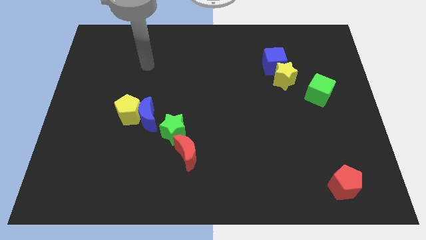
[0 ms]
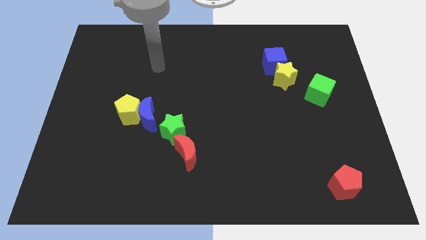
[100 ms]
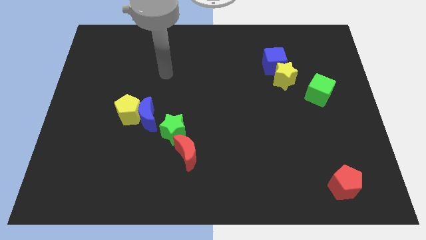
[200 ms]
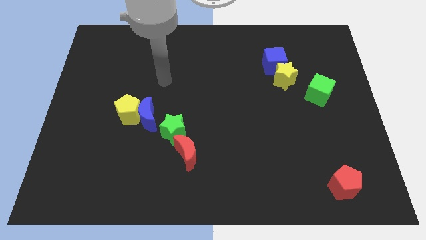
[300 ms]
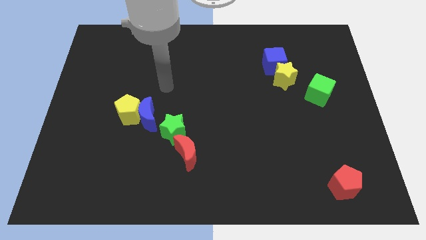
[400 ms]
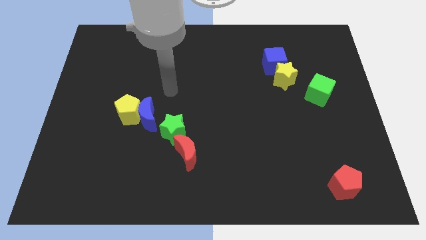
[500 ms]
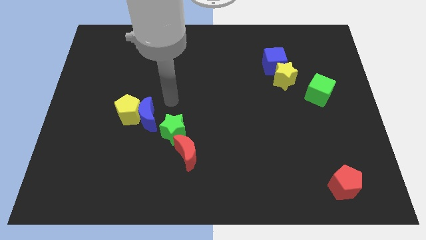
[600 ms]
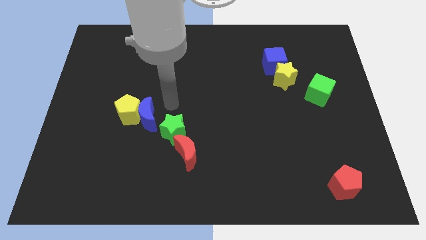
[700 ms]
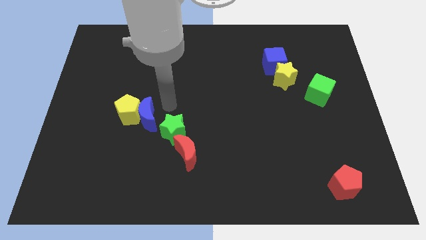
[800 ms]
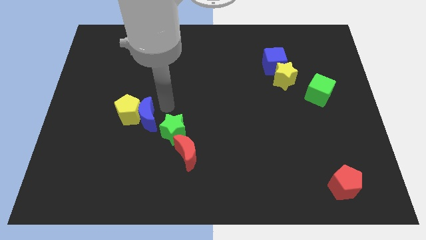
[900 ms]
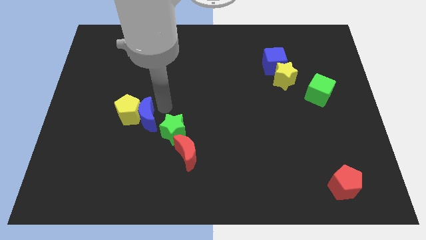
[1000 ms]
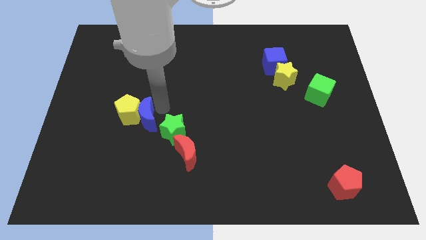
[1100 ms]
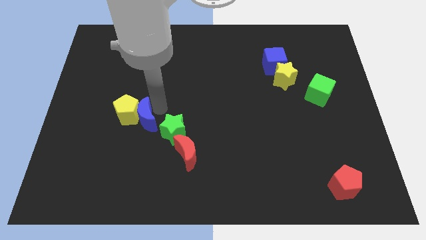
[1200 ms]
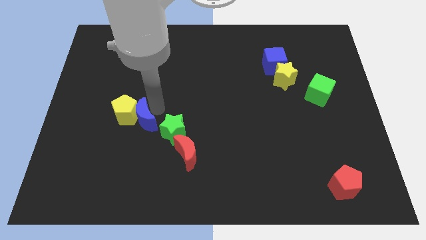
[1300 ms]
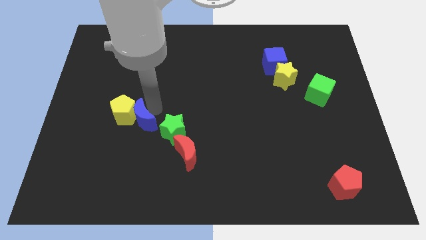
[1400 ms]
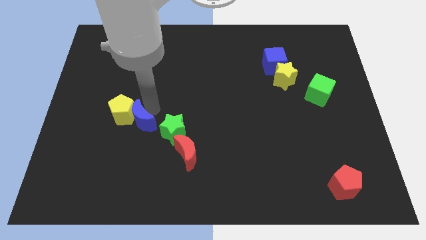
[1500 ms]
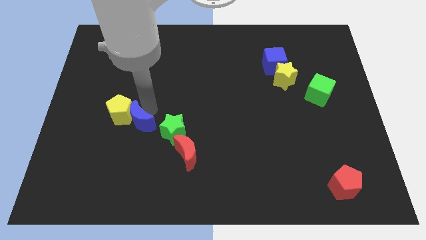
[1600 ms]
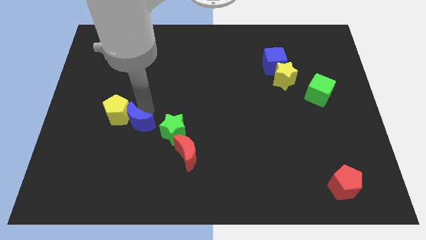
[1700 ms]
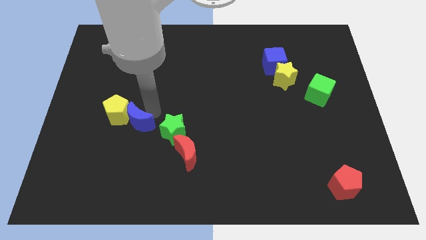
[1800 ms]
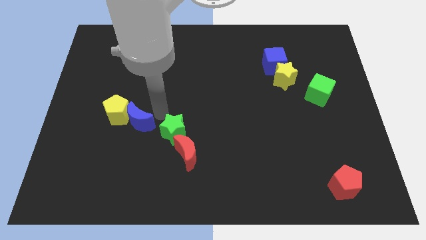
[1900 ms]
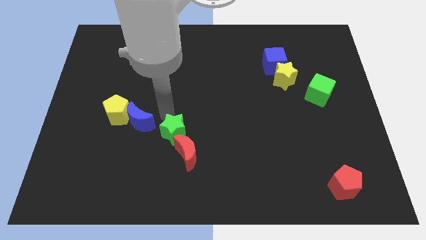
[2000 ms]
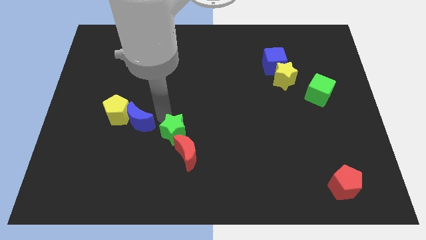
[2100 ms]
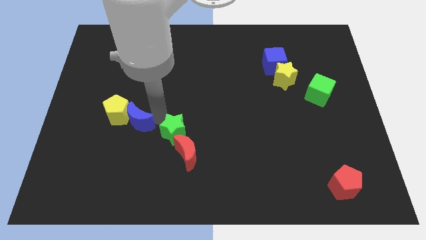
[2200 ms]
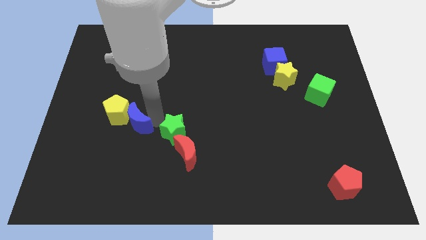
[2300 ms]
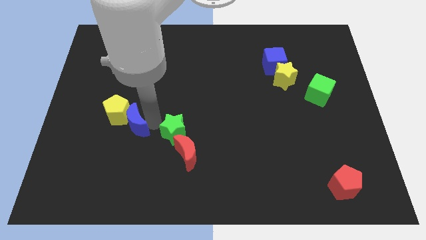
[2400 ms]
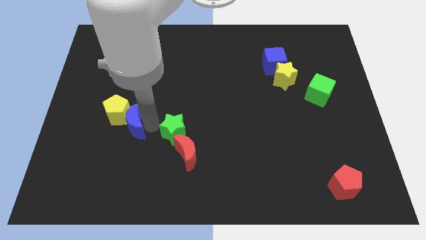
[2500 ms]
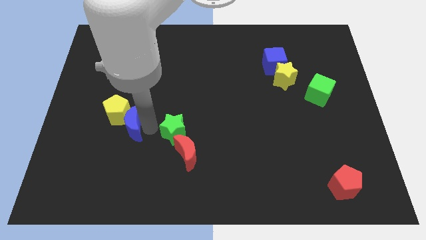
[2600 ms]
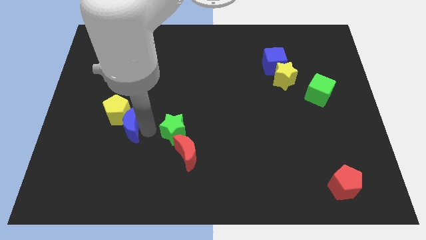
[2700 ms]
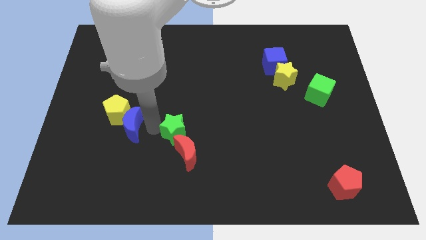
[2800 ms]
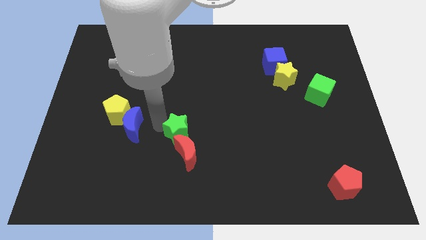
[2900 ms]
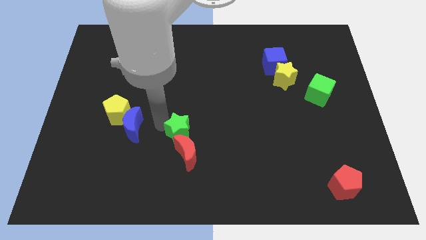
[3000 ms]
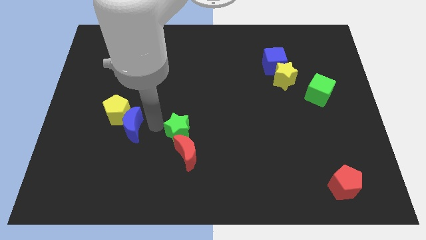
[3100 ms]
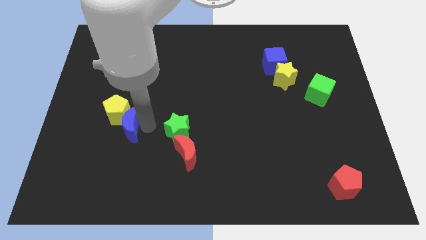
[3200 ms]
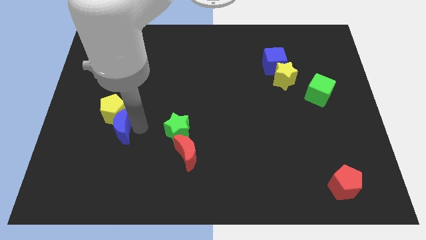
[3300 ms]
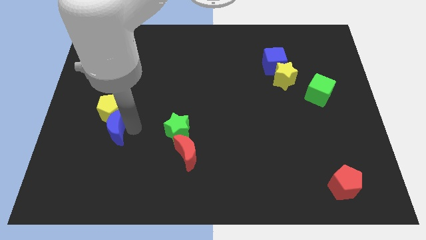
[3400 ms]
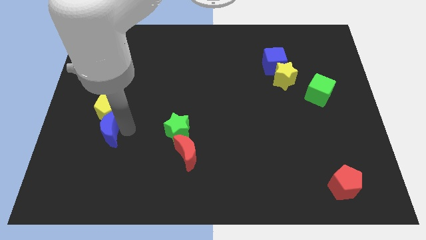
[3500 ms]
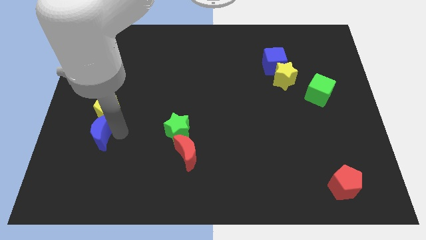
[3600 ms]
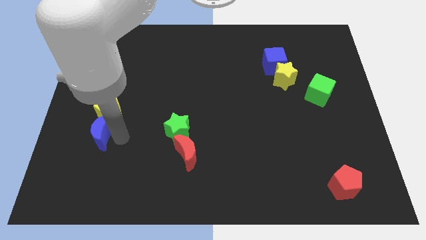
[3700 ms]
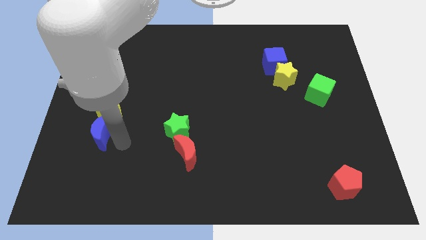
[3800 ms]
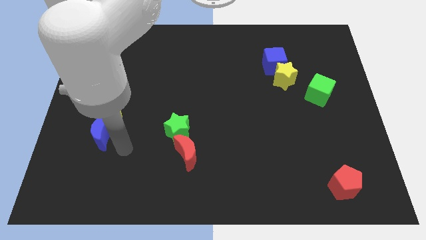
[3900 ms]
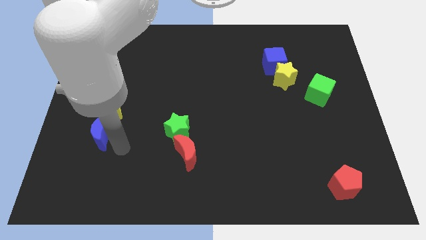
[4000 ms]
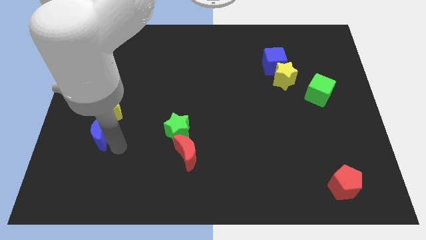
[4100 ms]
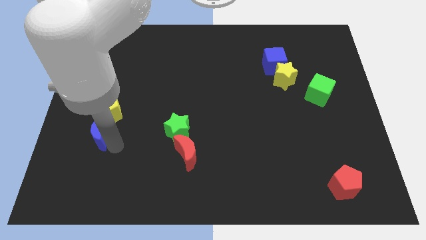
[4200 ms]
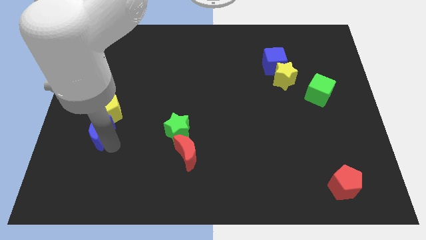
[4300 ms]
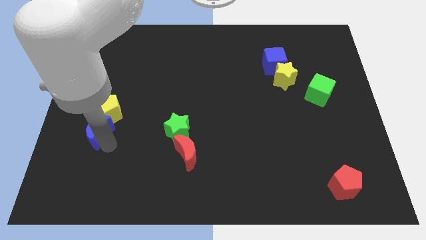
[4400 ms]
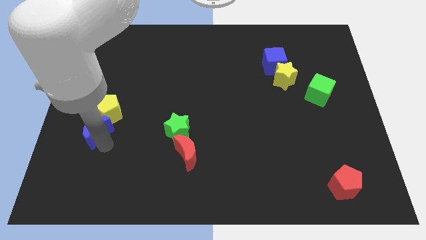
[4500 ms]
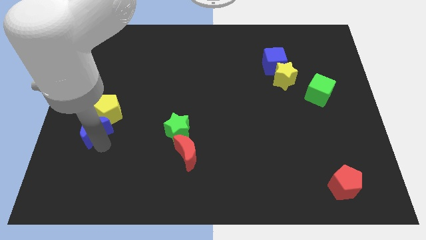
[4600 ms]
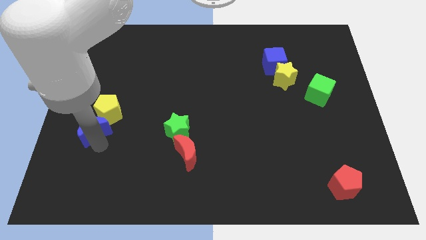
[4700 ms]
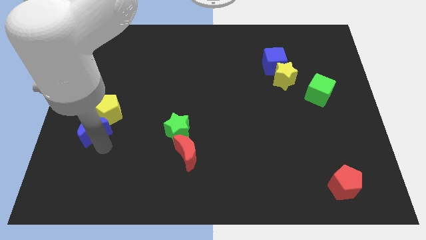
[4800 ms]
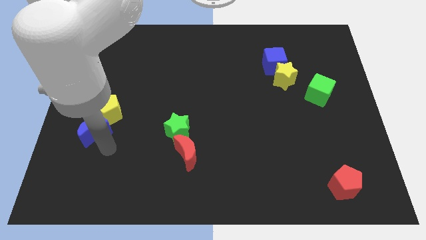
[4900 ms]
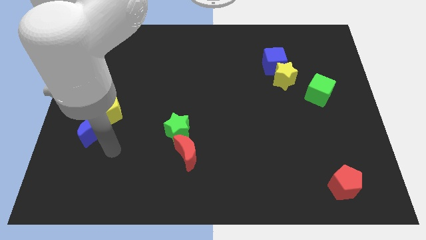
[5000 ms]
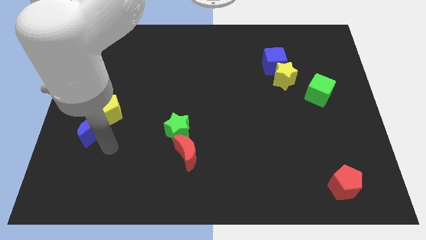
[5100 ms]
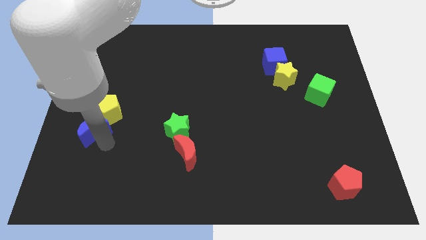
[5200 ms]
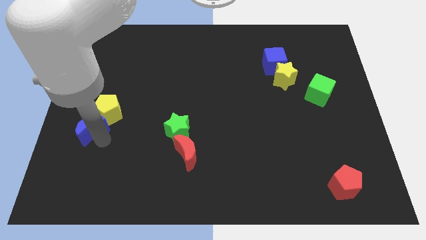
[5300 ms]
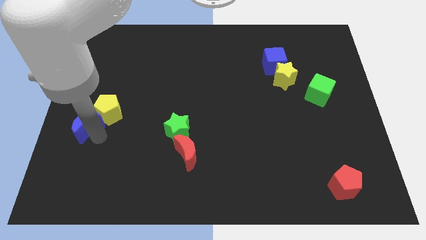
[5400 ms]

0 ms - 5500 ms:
move the blue moon to the left side

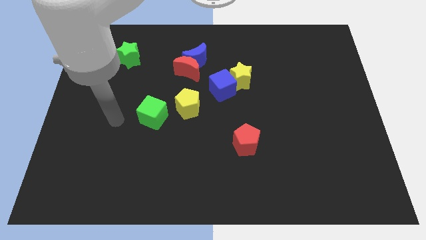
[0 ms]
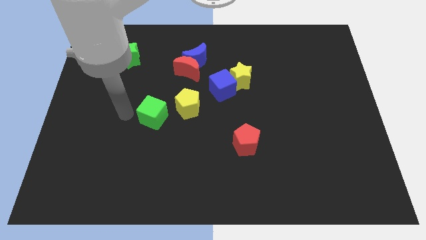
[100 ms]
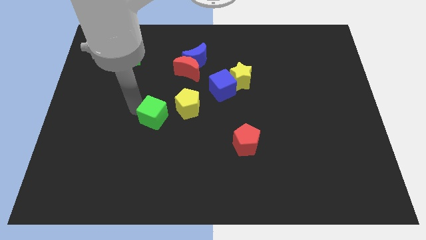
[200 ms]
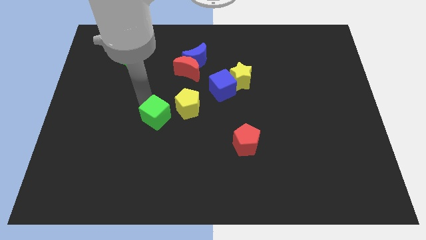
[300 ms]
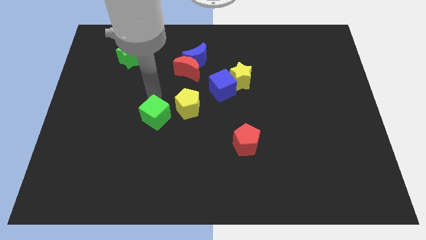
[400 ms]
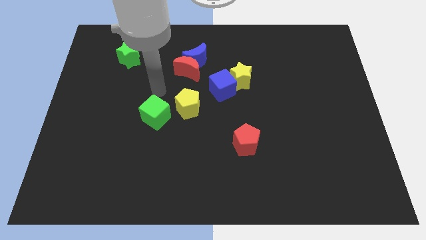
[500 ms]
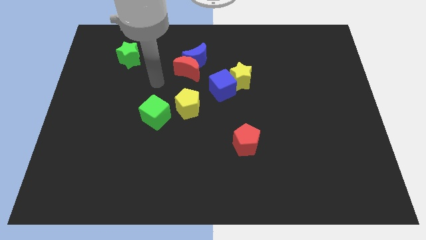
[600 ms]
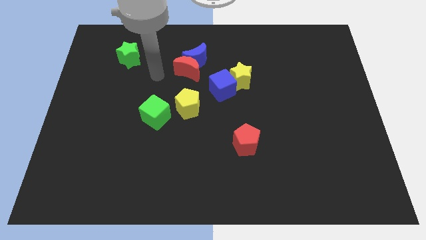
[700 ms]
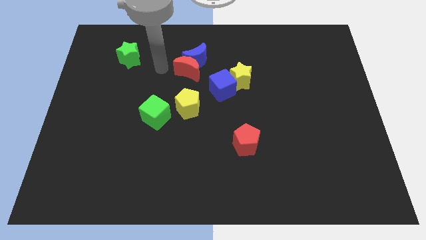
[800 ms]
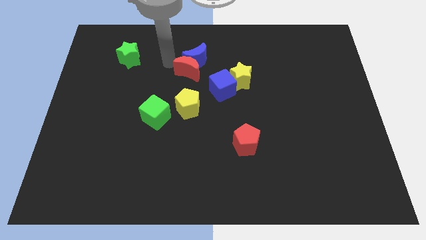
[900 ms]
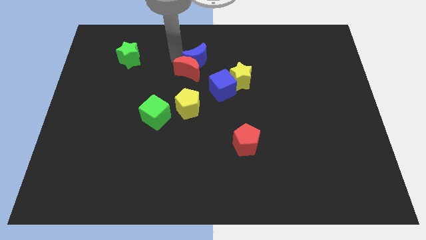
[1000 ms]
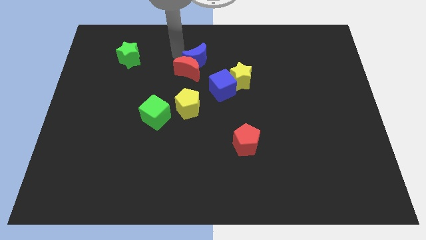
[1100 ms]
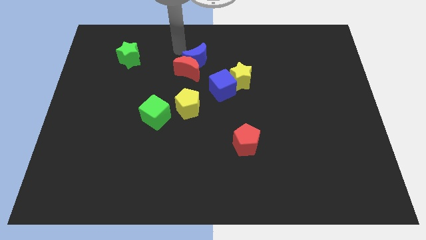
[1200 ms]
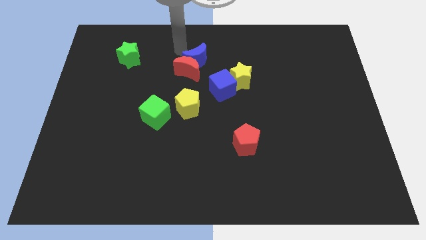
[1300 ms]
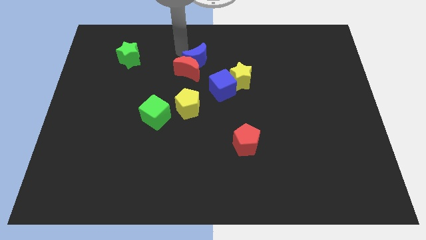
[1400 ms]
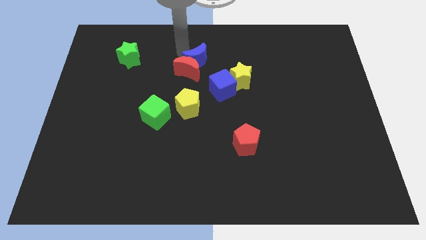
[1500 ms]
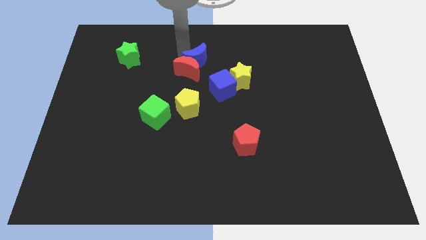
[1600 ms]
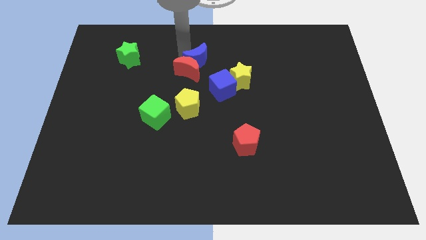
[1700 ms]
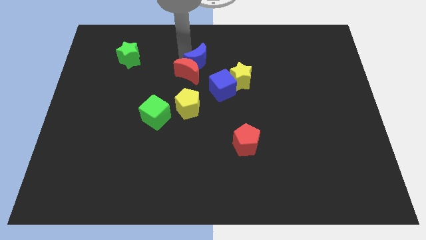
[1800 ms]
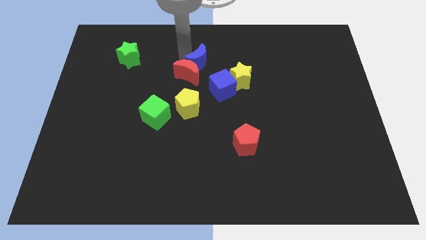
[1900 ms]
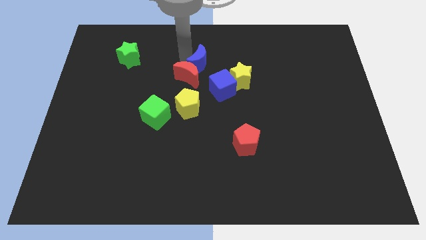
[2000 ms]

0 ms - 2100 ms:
slide the blue moon to the middle of the board
